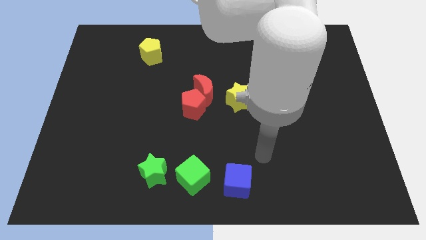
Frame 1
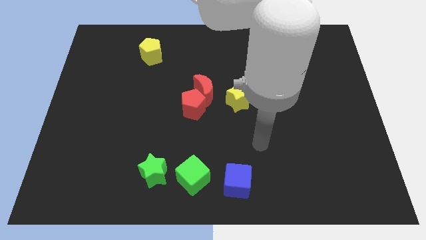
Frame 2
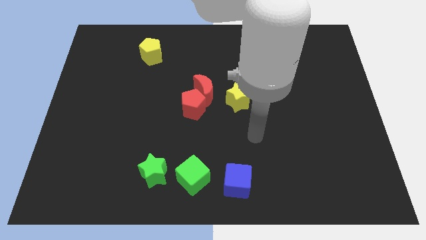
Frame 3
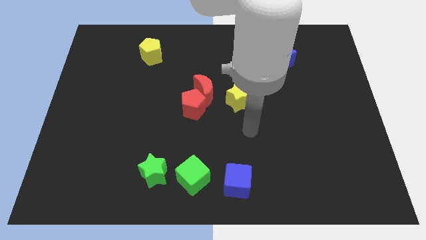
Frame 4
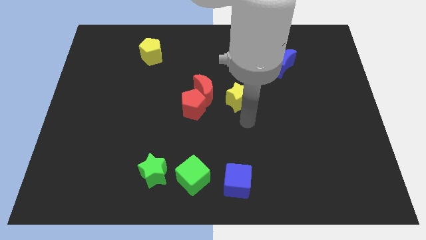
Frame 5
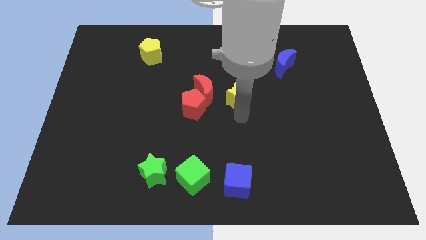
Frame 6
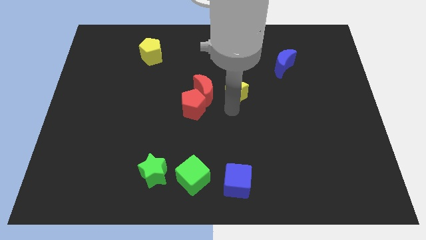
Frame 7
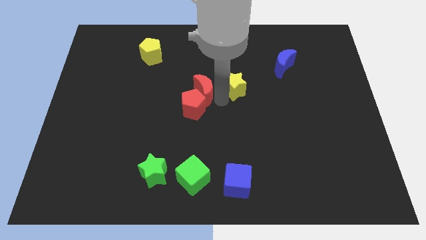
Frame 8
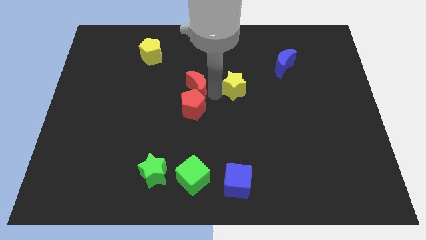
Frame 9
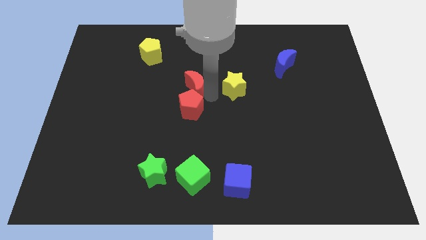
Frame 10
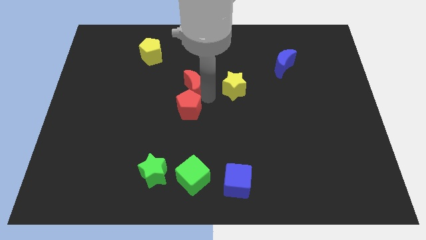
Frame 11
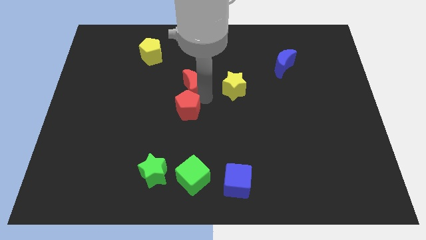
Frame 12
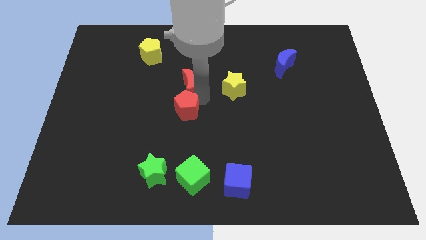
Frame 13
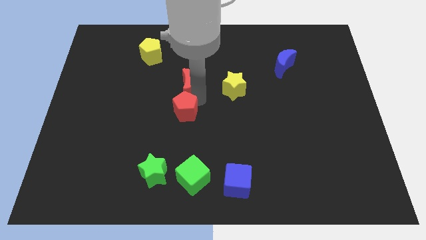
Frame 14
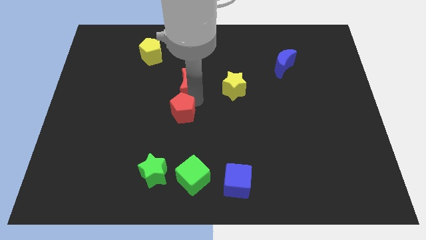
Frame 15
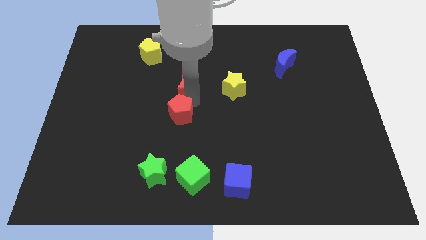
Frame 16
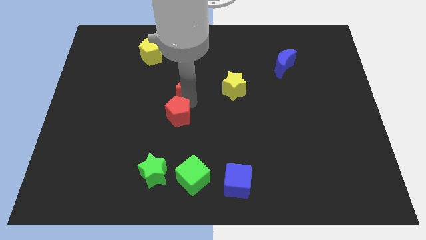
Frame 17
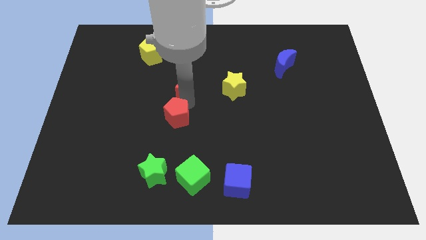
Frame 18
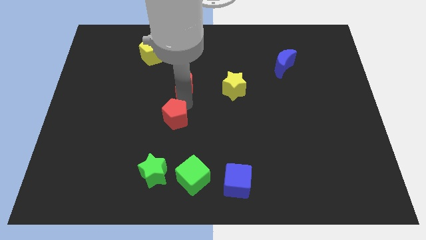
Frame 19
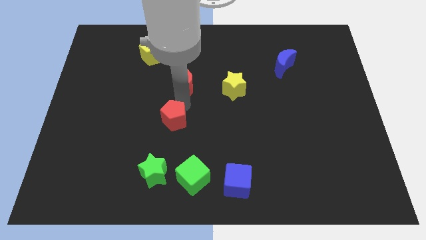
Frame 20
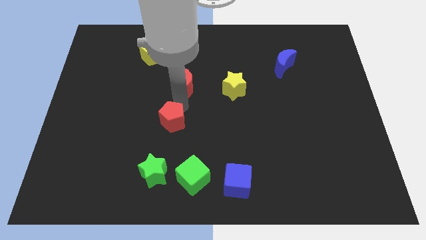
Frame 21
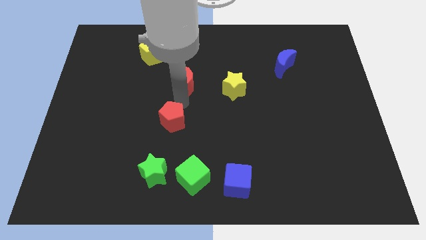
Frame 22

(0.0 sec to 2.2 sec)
pull the red pentagon apart from the red moon

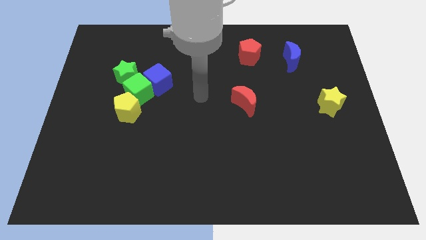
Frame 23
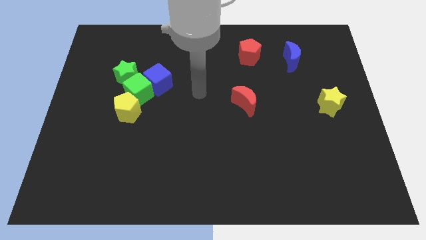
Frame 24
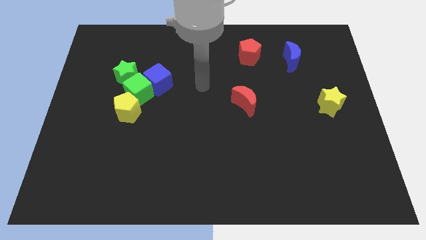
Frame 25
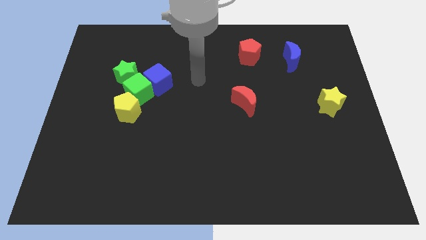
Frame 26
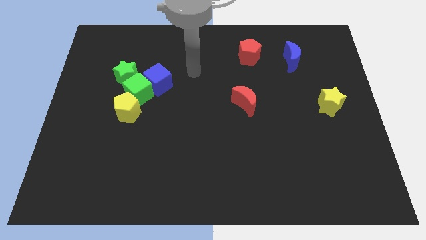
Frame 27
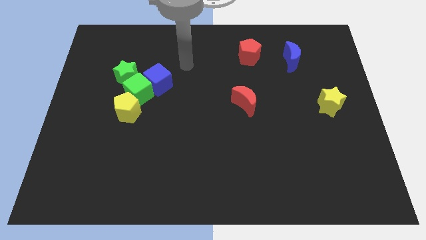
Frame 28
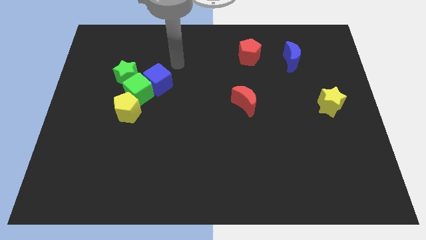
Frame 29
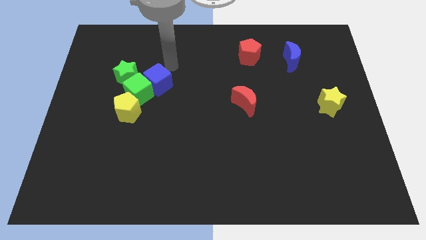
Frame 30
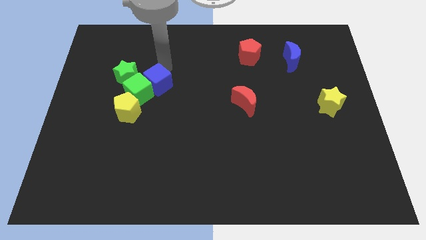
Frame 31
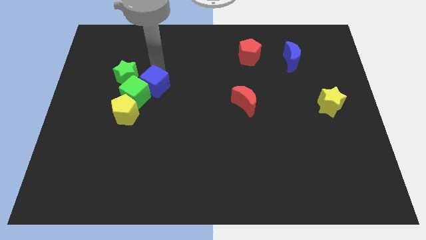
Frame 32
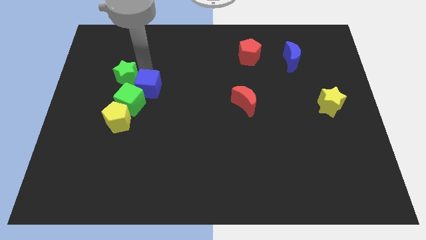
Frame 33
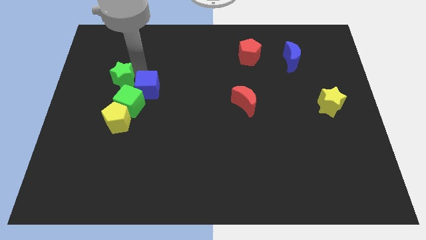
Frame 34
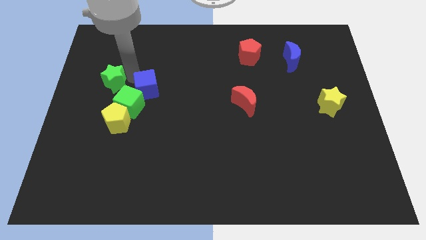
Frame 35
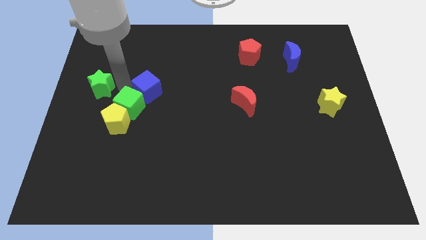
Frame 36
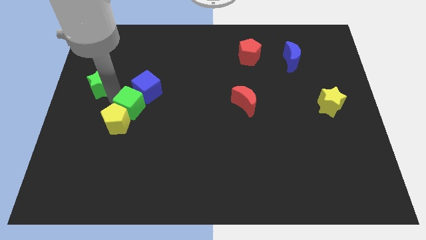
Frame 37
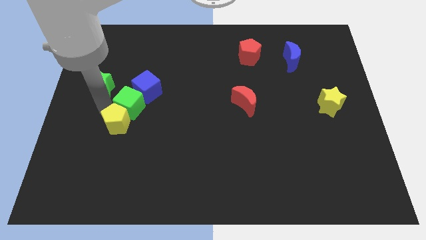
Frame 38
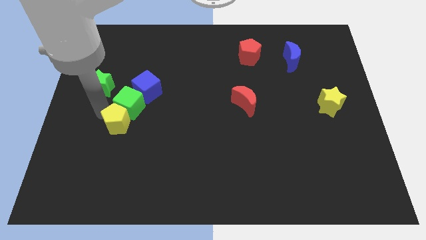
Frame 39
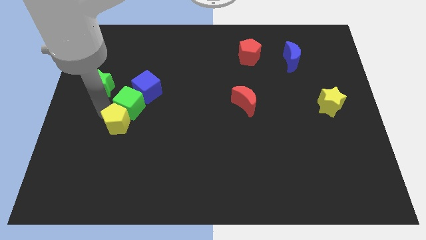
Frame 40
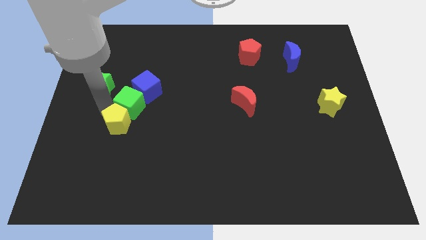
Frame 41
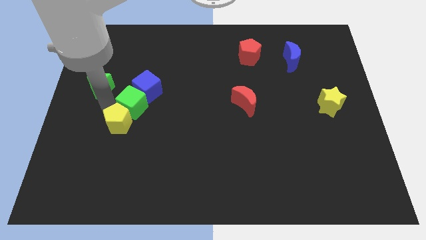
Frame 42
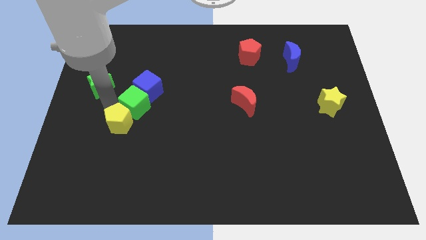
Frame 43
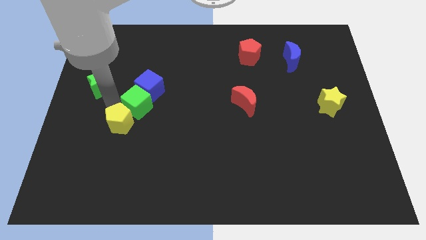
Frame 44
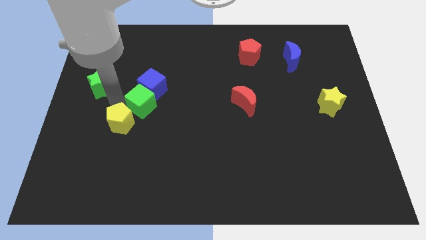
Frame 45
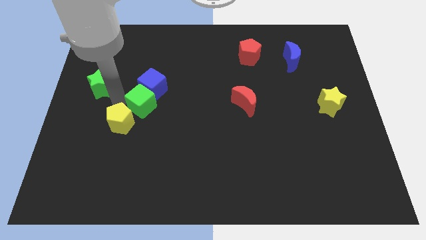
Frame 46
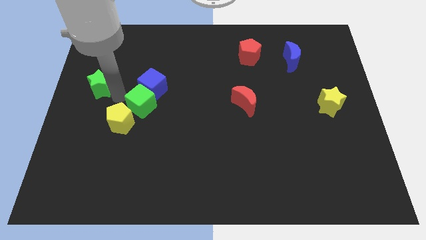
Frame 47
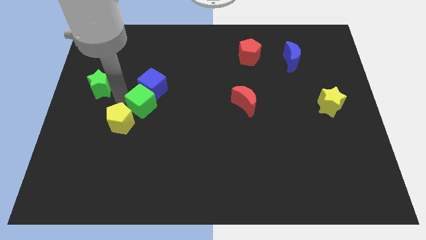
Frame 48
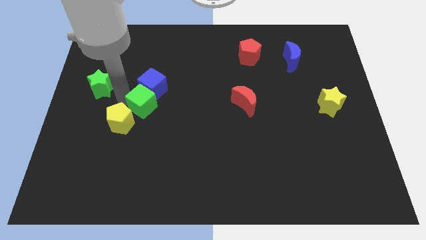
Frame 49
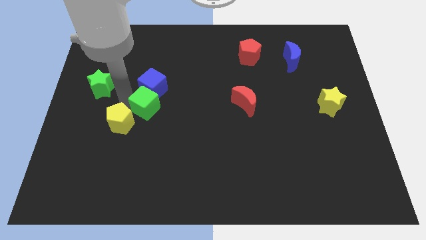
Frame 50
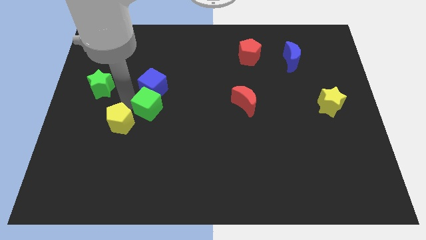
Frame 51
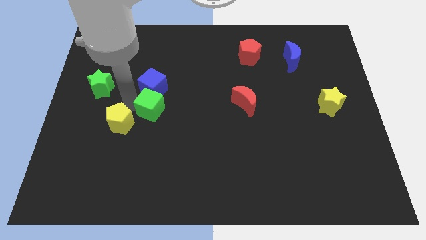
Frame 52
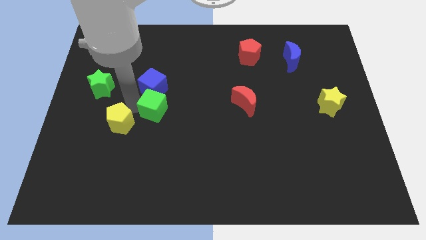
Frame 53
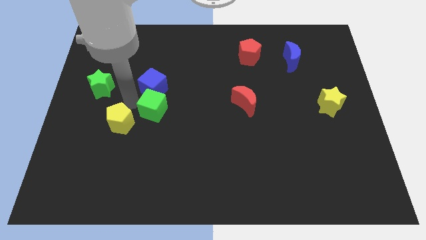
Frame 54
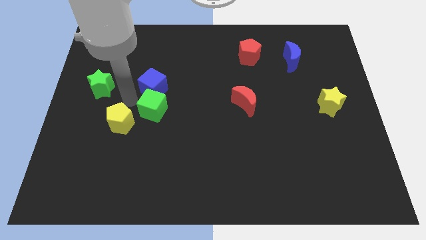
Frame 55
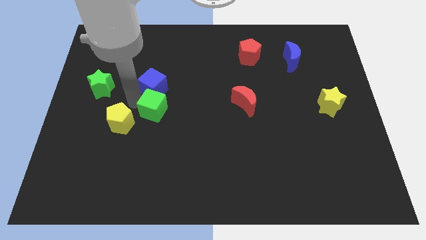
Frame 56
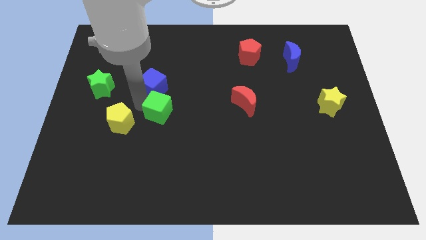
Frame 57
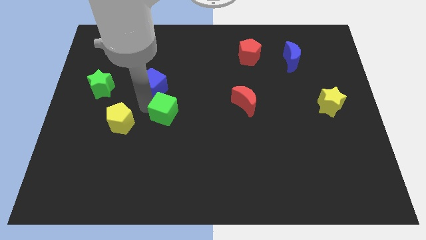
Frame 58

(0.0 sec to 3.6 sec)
move the green cube away from the blue cube, yellow pentagon, and green star

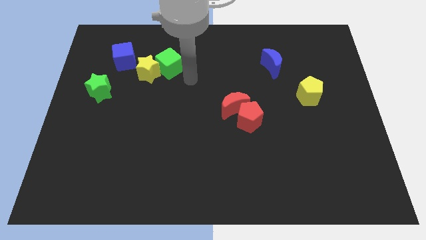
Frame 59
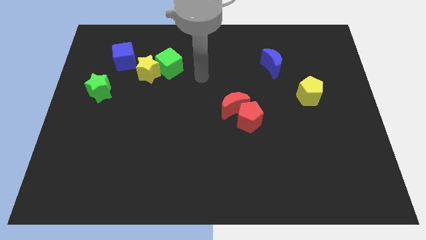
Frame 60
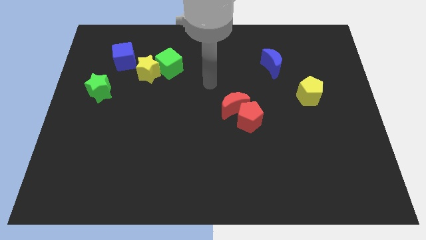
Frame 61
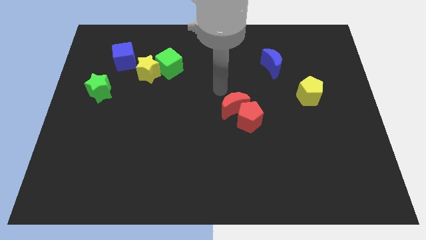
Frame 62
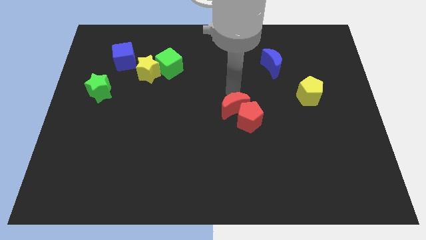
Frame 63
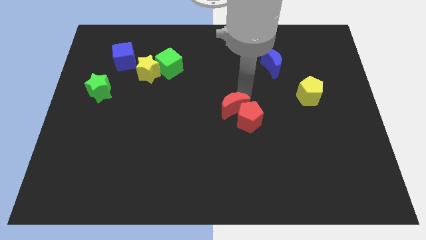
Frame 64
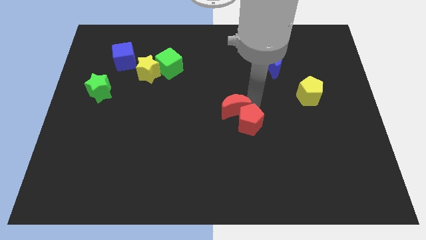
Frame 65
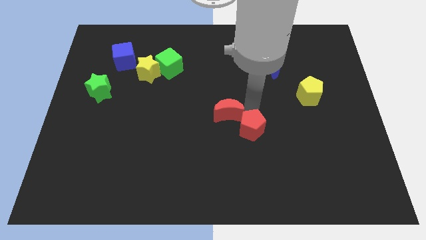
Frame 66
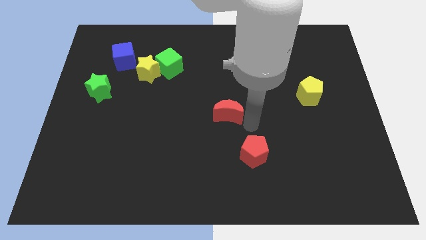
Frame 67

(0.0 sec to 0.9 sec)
move the red moon away from the red pentagon

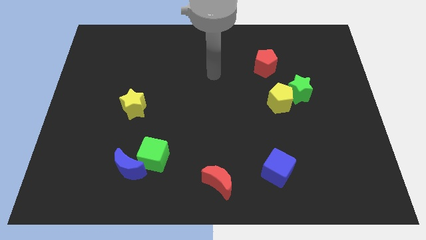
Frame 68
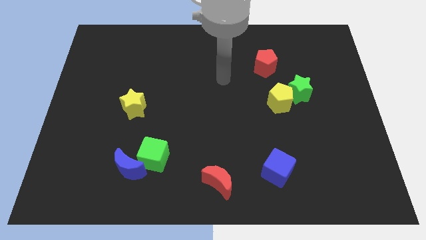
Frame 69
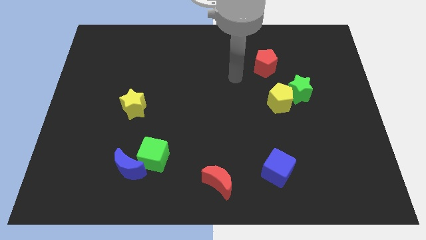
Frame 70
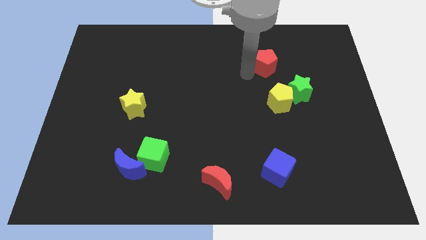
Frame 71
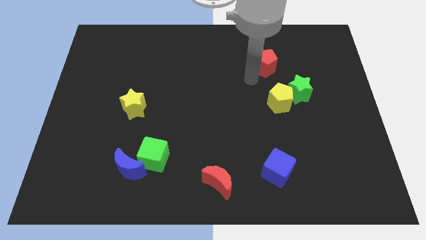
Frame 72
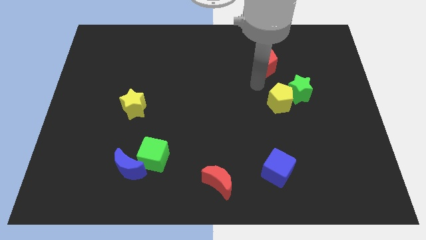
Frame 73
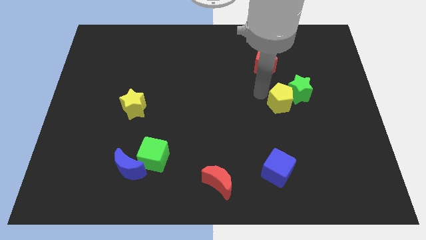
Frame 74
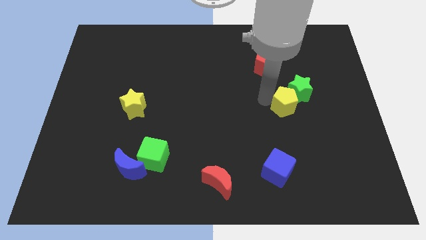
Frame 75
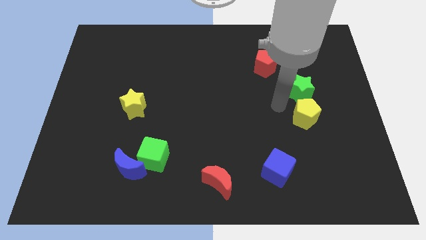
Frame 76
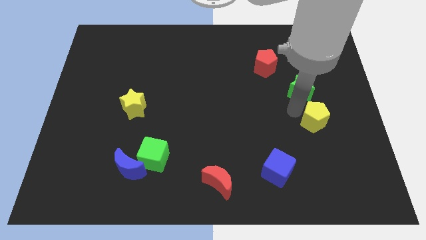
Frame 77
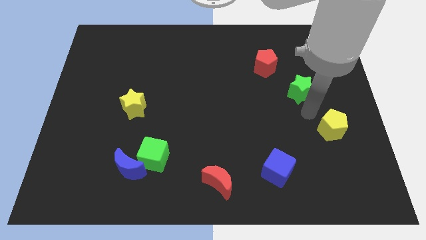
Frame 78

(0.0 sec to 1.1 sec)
pull the green star apart from the yellow pentagon

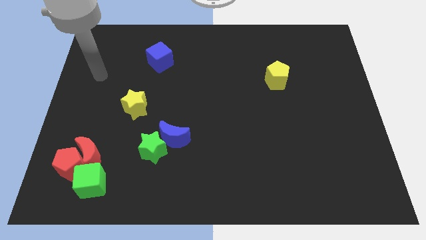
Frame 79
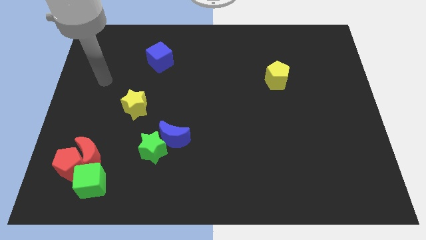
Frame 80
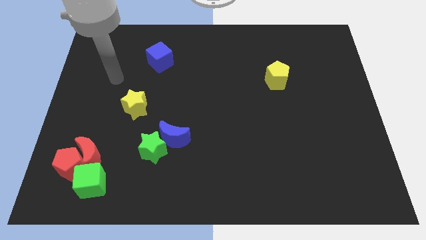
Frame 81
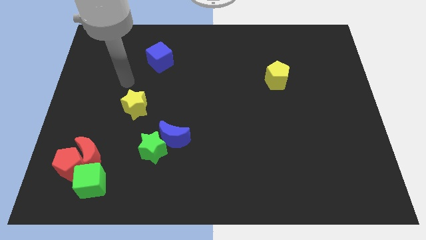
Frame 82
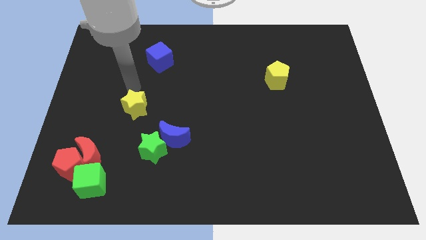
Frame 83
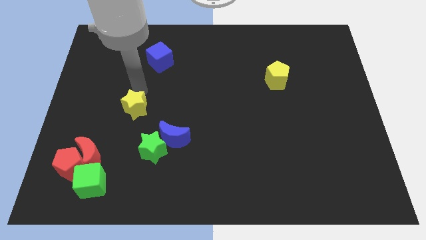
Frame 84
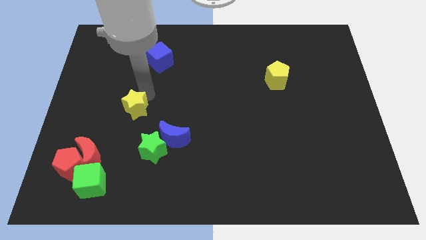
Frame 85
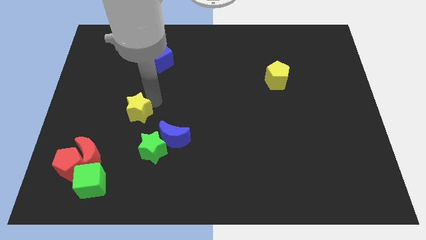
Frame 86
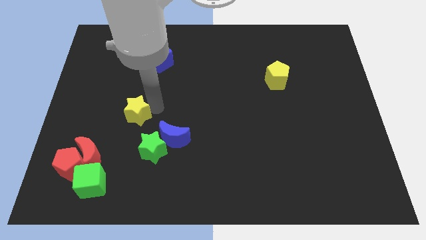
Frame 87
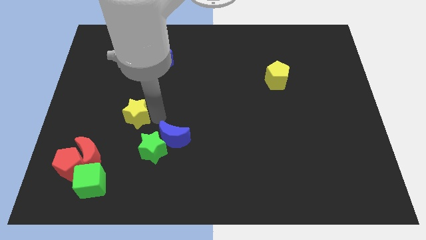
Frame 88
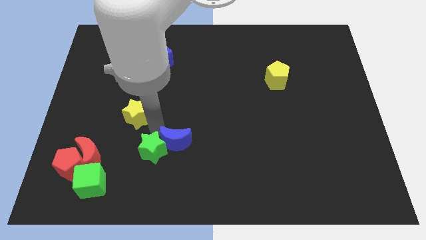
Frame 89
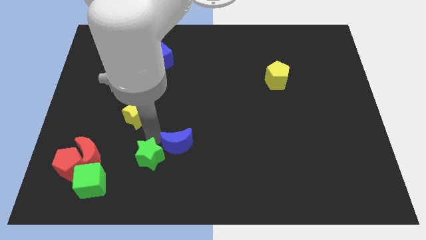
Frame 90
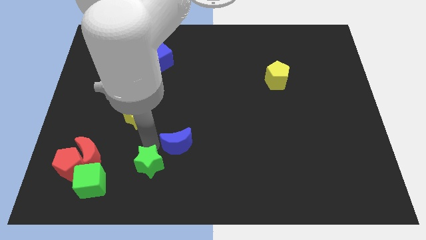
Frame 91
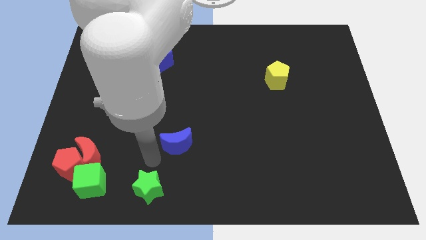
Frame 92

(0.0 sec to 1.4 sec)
move the blue moon away from the green star

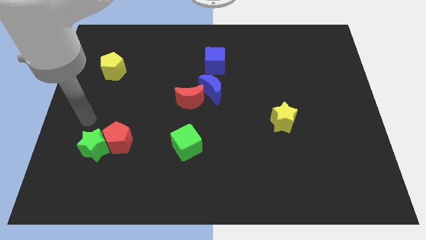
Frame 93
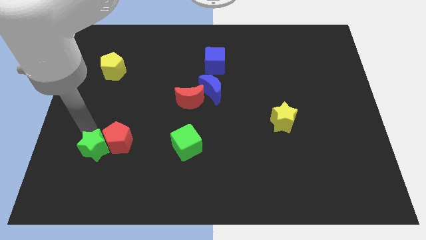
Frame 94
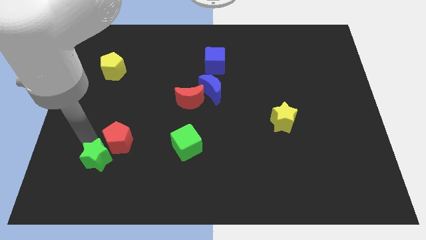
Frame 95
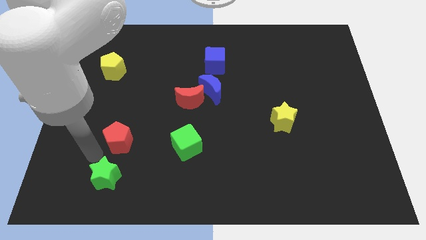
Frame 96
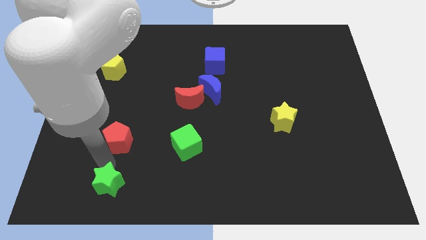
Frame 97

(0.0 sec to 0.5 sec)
pull the red pentagon apart from the green star
